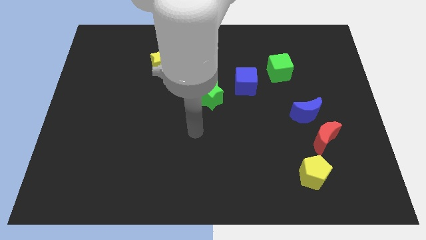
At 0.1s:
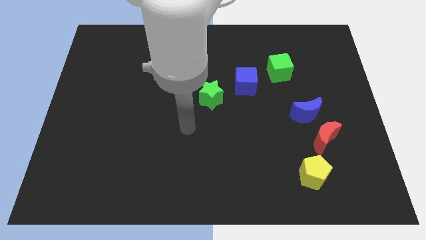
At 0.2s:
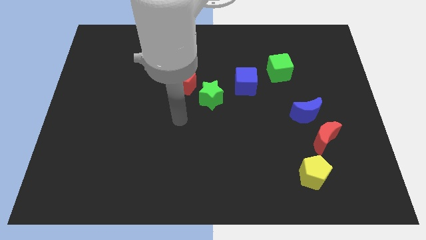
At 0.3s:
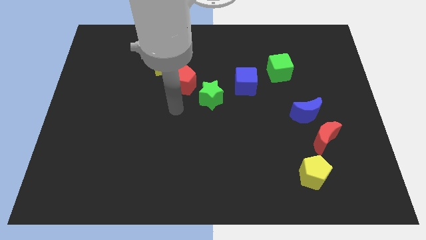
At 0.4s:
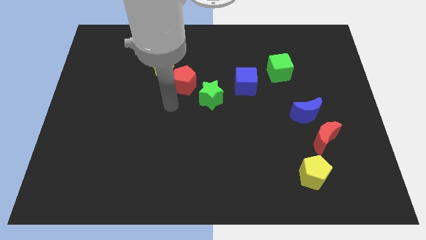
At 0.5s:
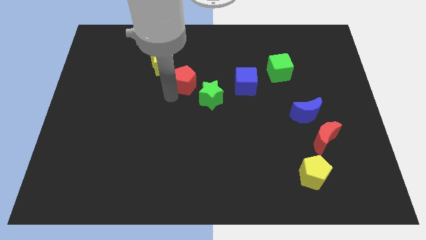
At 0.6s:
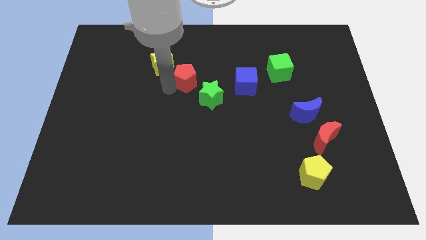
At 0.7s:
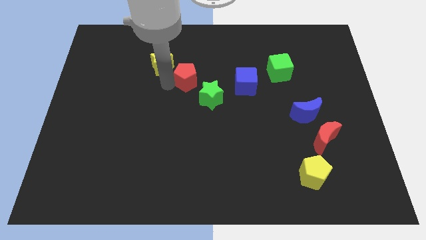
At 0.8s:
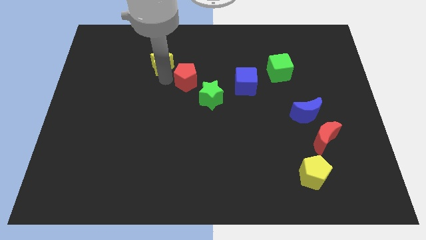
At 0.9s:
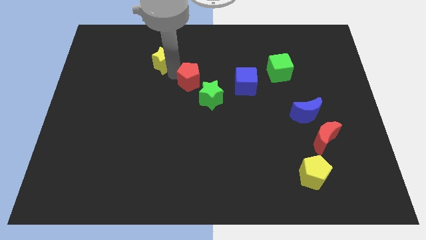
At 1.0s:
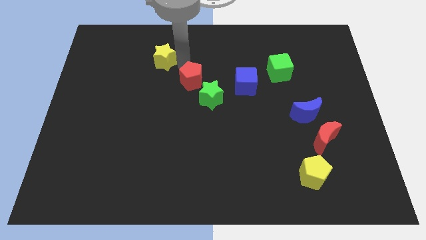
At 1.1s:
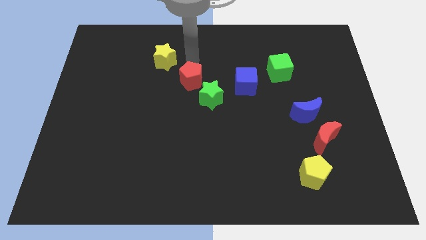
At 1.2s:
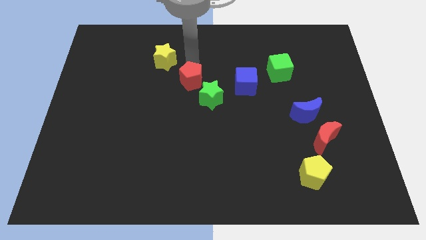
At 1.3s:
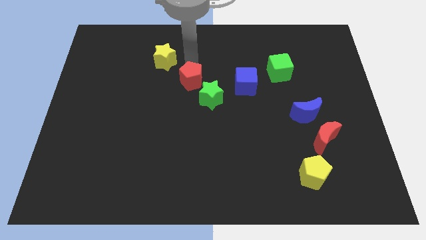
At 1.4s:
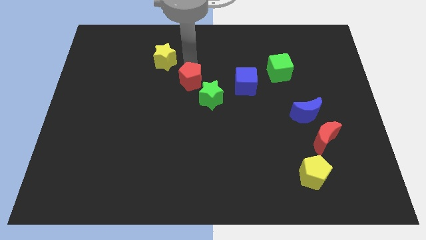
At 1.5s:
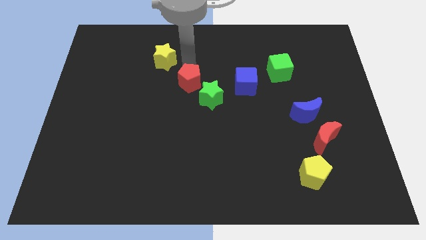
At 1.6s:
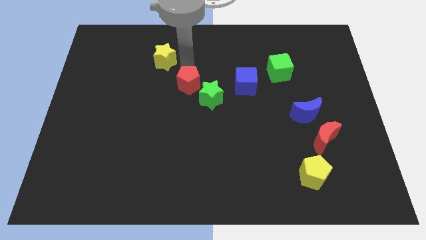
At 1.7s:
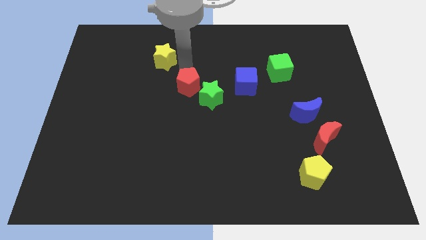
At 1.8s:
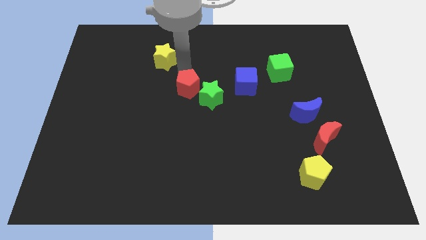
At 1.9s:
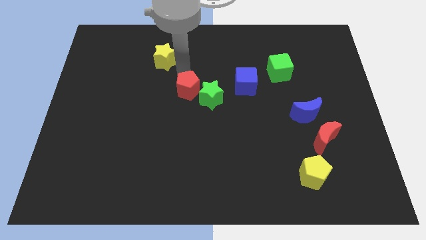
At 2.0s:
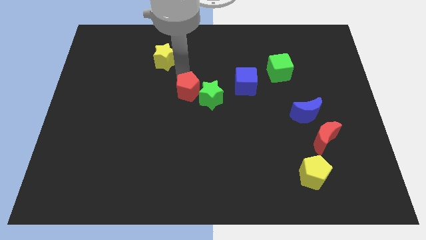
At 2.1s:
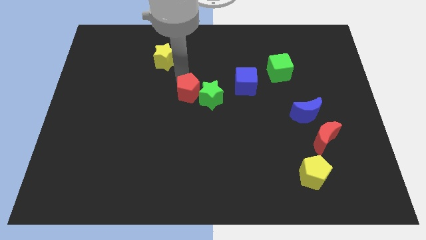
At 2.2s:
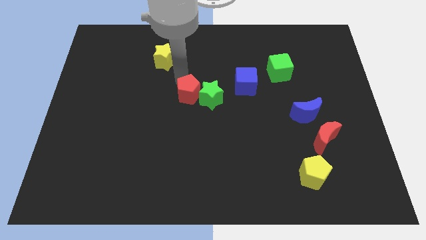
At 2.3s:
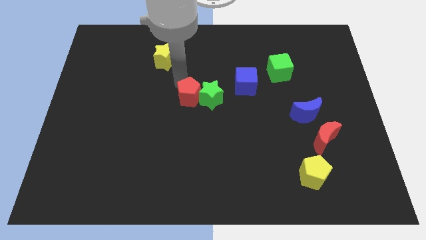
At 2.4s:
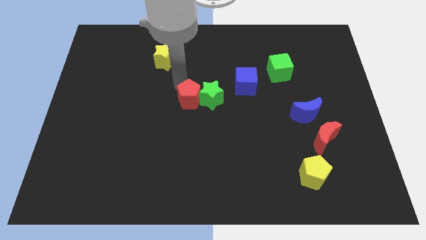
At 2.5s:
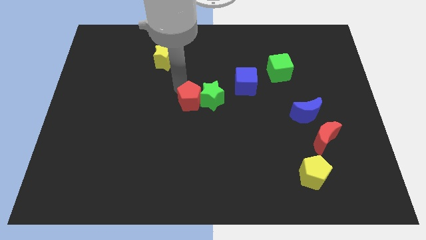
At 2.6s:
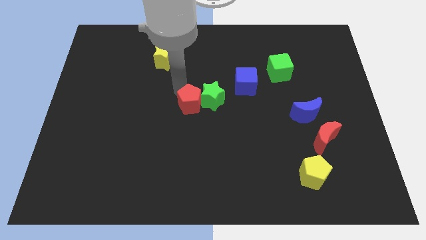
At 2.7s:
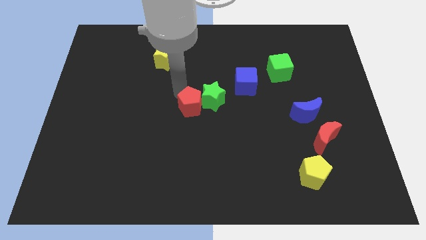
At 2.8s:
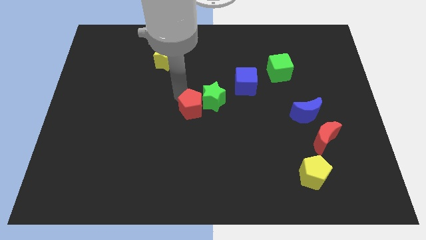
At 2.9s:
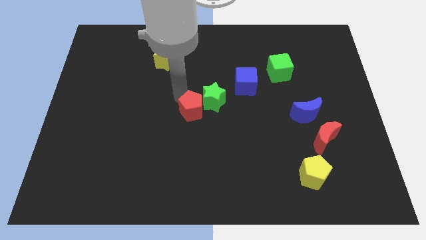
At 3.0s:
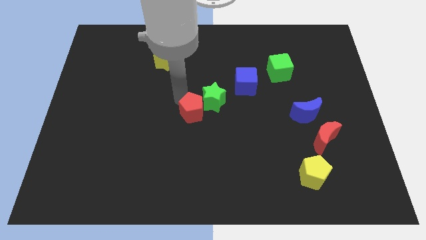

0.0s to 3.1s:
slightly move the red pentagon downwards and to the right diagonally

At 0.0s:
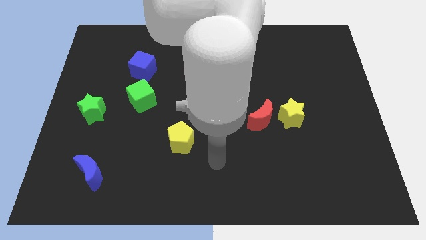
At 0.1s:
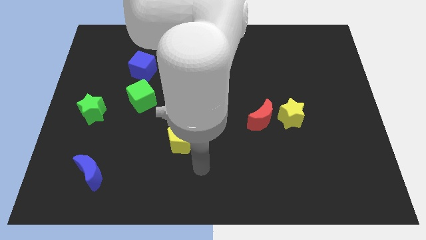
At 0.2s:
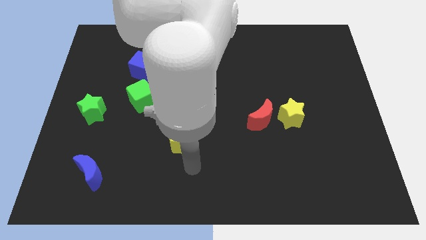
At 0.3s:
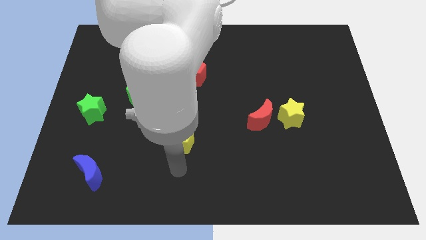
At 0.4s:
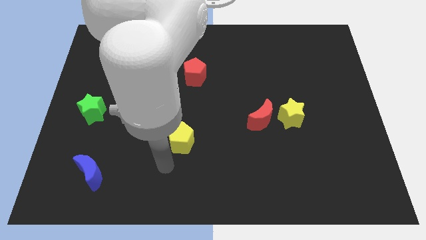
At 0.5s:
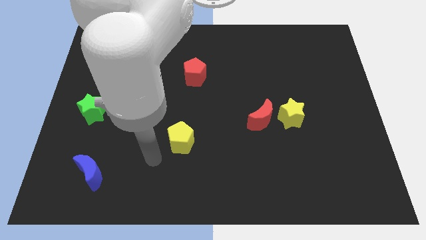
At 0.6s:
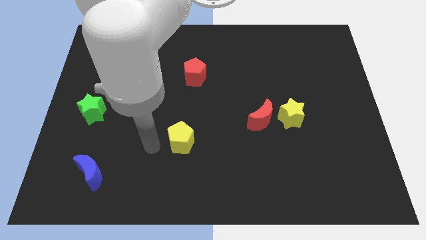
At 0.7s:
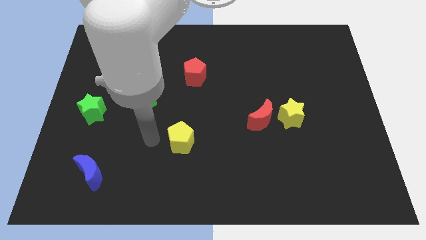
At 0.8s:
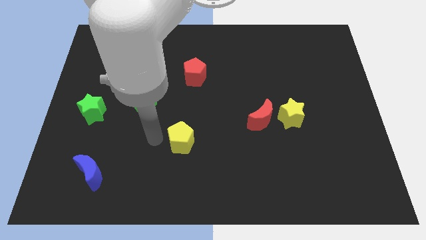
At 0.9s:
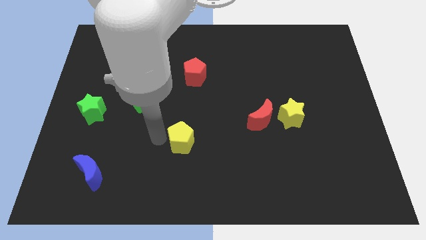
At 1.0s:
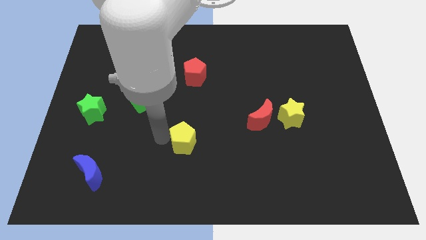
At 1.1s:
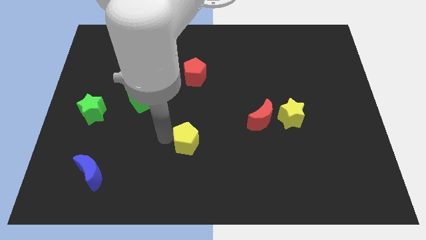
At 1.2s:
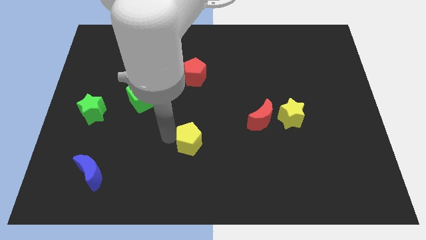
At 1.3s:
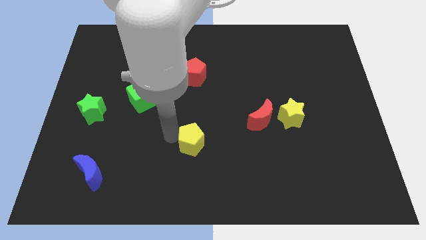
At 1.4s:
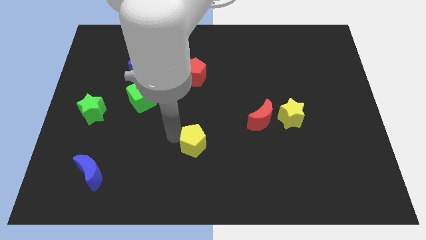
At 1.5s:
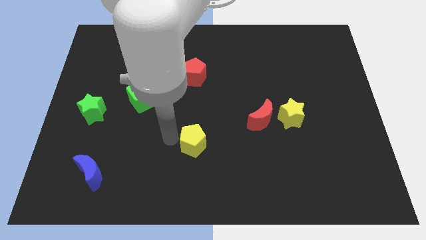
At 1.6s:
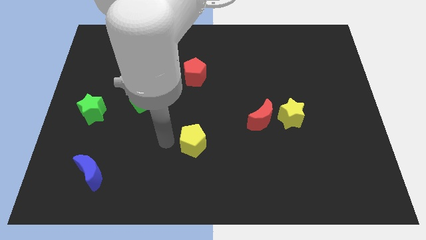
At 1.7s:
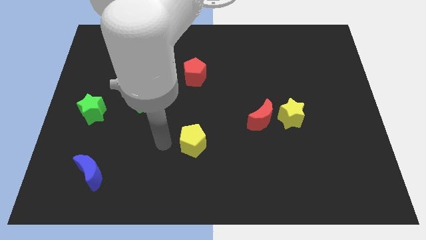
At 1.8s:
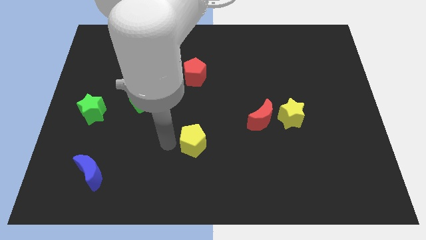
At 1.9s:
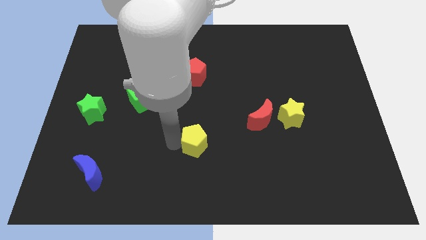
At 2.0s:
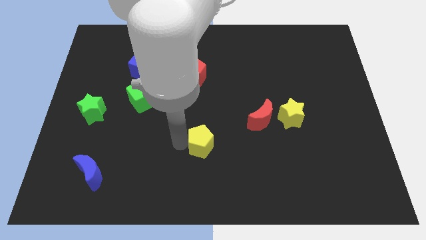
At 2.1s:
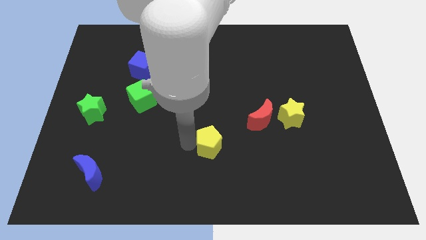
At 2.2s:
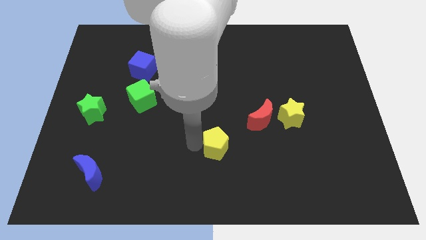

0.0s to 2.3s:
slide the yellow pentagon slightly to the right

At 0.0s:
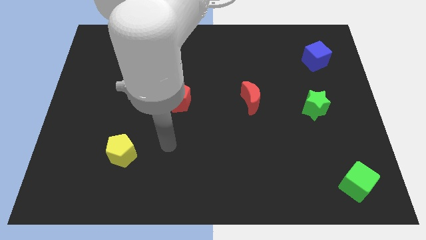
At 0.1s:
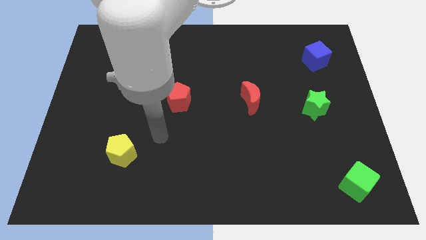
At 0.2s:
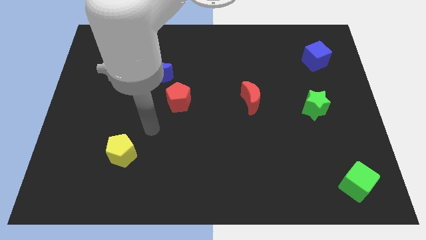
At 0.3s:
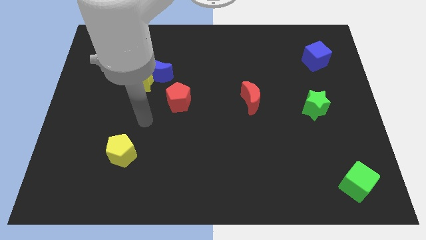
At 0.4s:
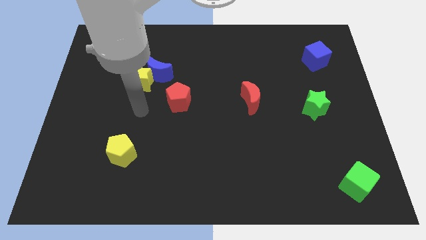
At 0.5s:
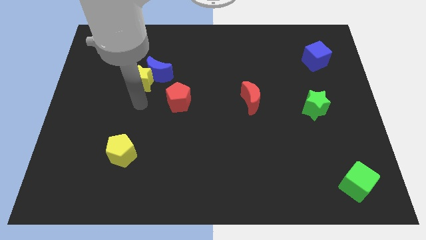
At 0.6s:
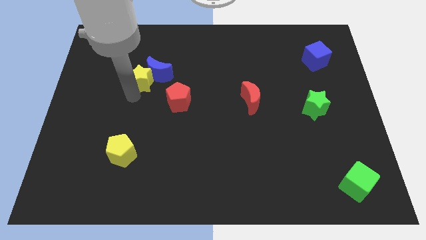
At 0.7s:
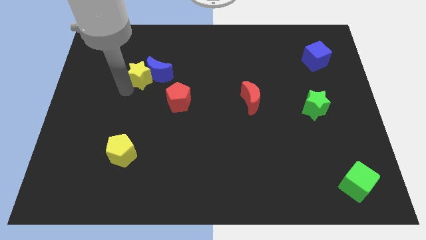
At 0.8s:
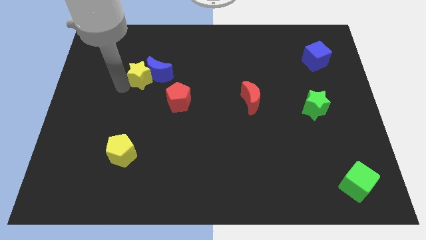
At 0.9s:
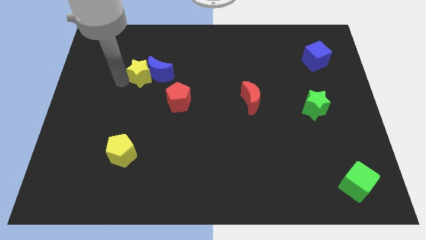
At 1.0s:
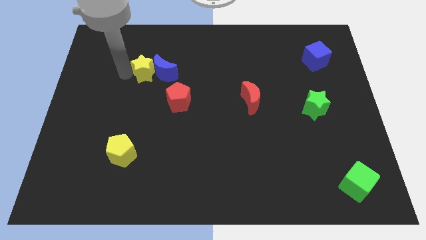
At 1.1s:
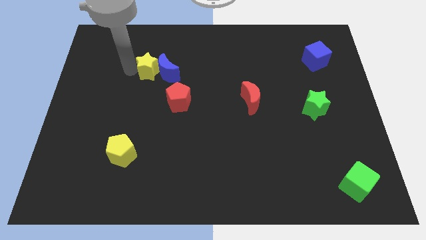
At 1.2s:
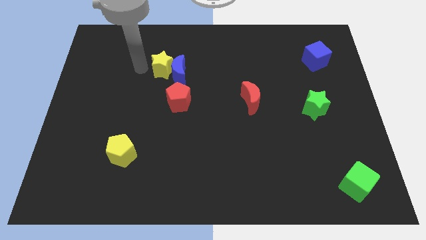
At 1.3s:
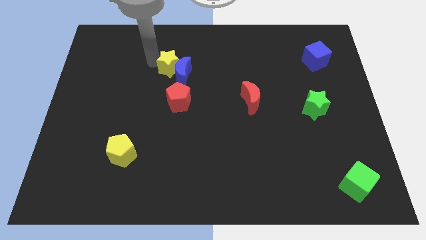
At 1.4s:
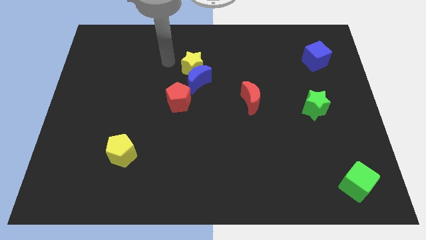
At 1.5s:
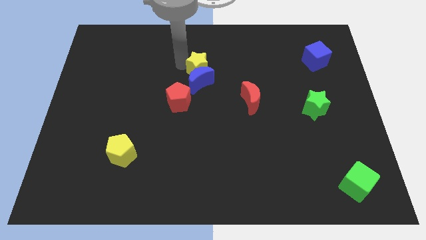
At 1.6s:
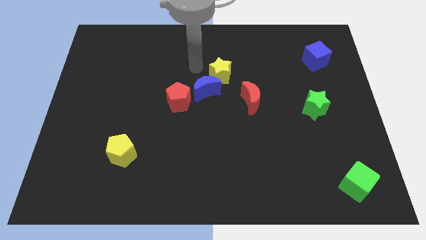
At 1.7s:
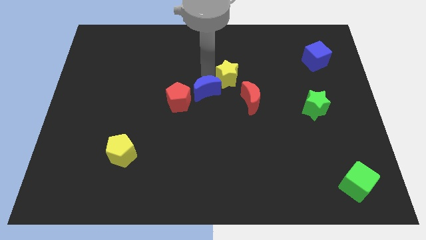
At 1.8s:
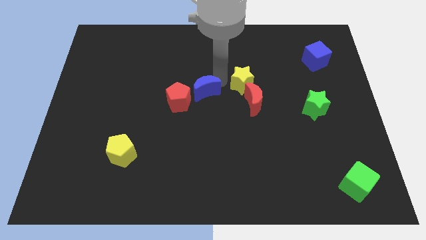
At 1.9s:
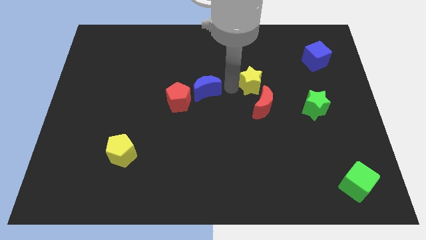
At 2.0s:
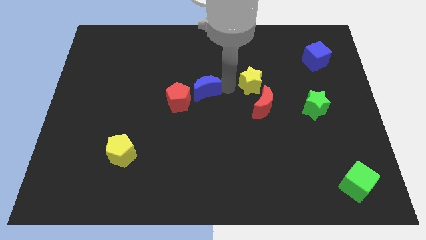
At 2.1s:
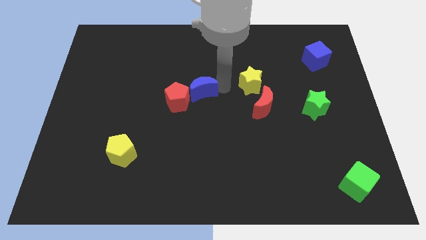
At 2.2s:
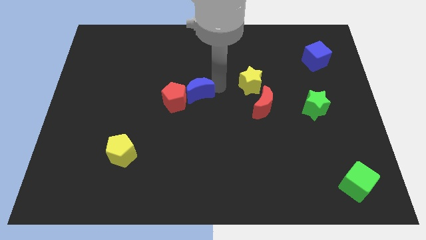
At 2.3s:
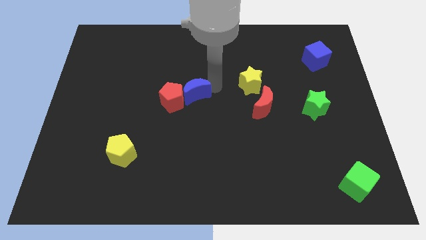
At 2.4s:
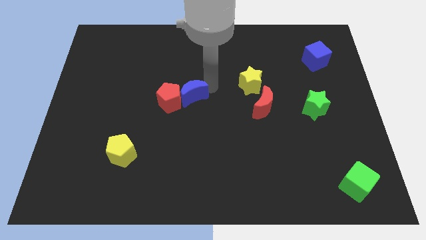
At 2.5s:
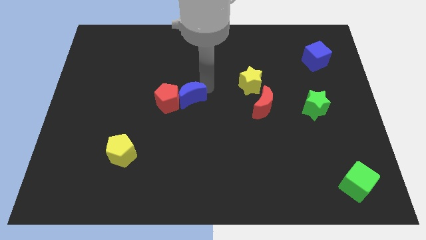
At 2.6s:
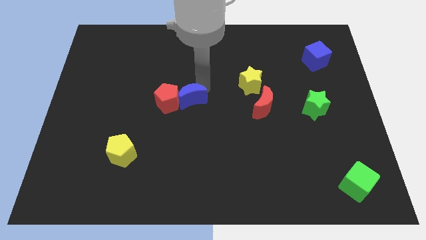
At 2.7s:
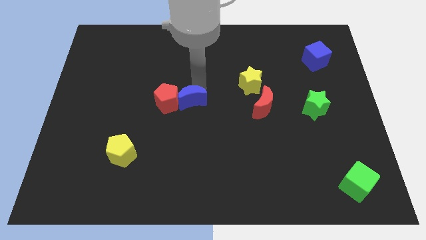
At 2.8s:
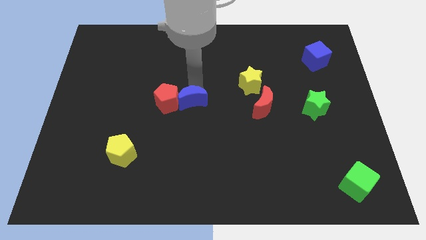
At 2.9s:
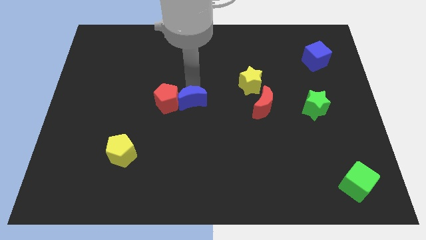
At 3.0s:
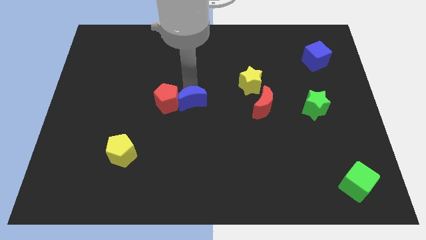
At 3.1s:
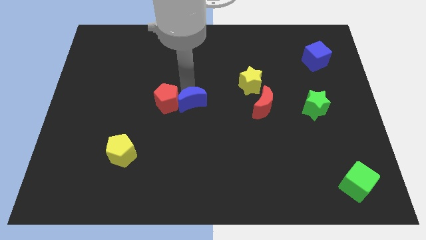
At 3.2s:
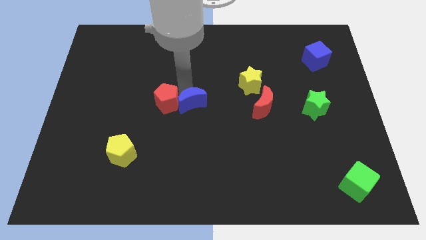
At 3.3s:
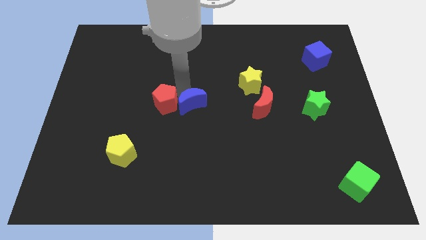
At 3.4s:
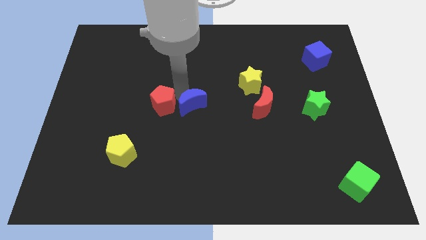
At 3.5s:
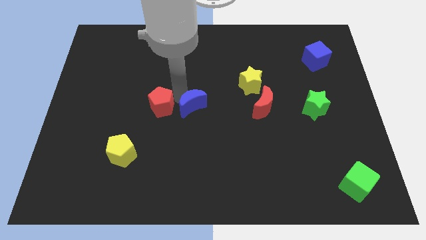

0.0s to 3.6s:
push the blue moon slightly down
